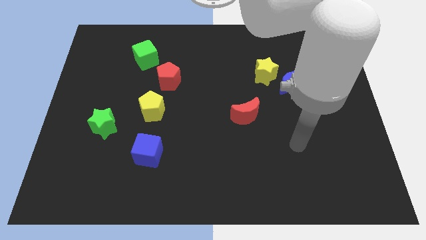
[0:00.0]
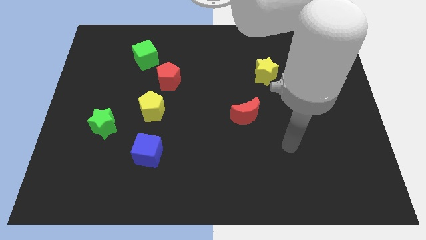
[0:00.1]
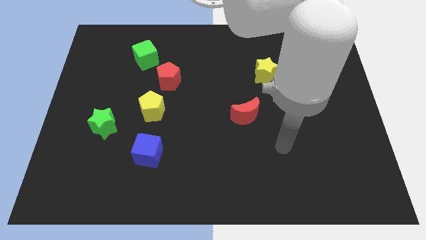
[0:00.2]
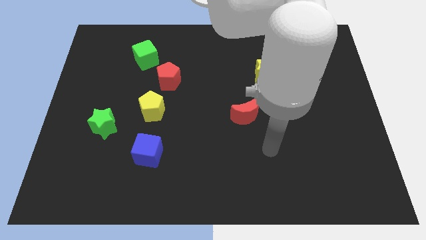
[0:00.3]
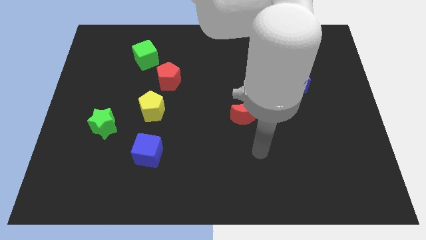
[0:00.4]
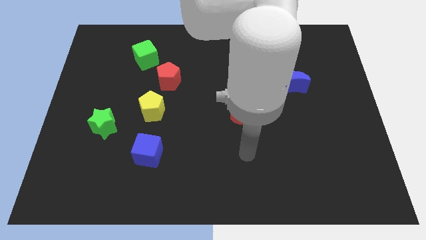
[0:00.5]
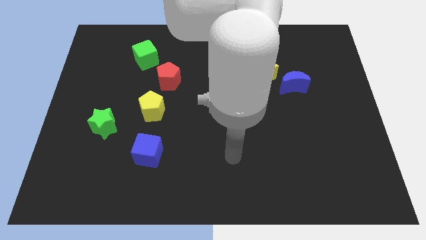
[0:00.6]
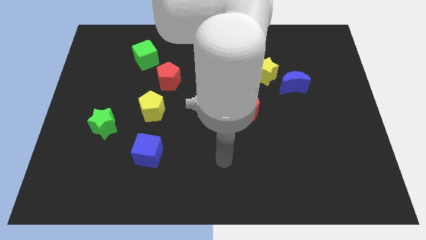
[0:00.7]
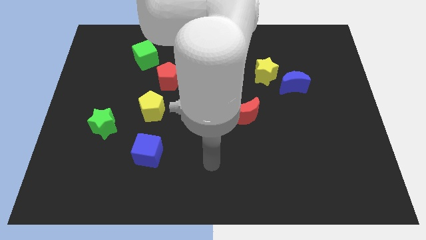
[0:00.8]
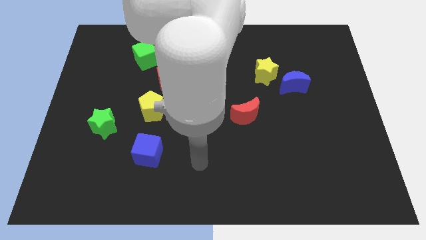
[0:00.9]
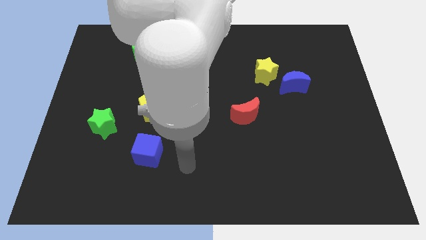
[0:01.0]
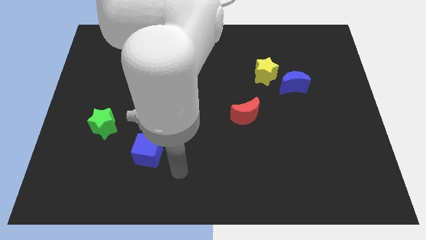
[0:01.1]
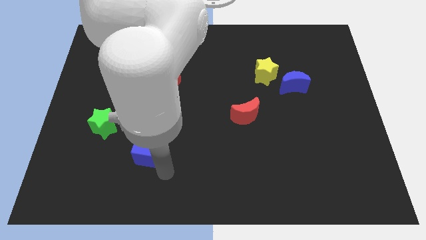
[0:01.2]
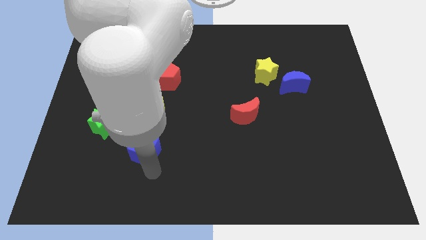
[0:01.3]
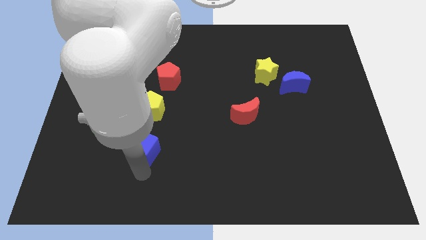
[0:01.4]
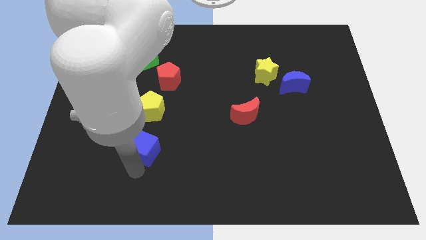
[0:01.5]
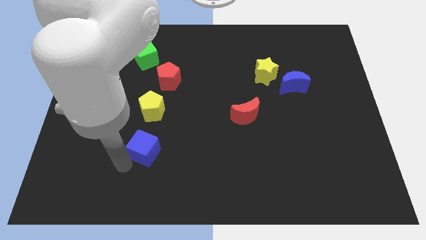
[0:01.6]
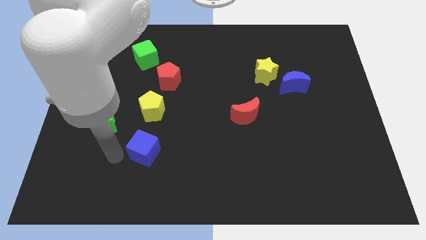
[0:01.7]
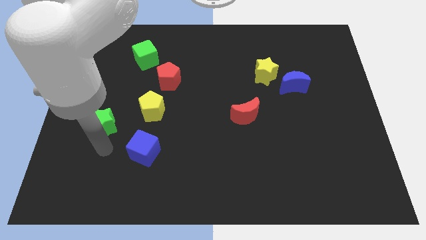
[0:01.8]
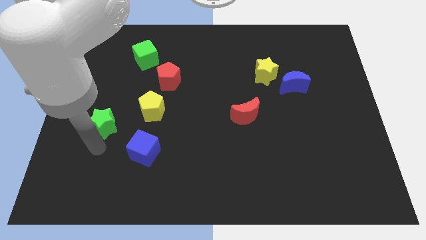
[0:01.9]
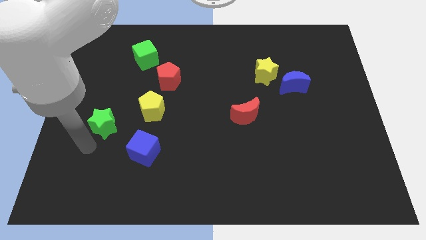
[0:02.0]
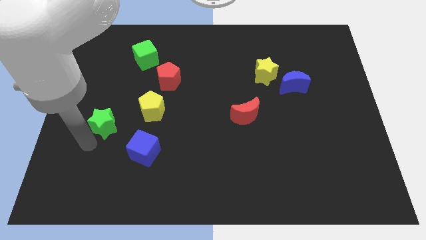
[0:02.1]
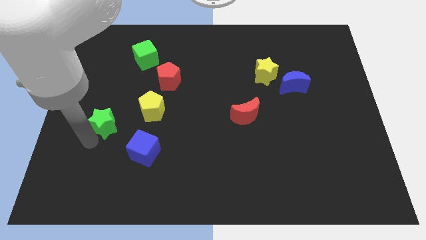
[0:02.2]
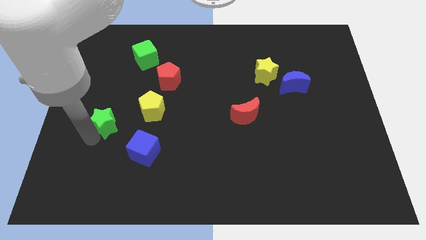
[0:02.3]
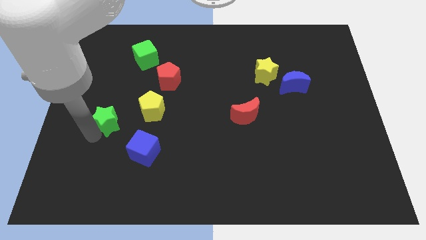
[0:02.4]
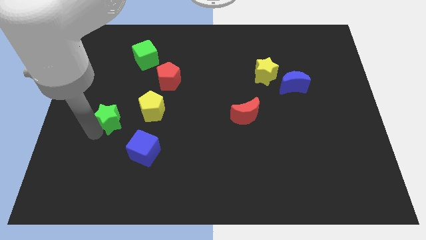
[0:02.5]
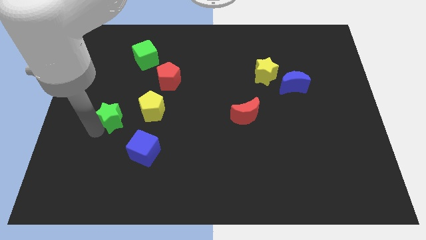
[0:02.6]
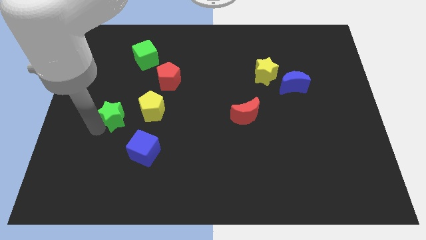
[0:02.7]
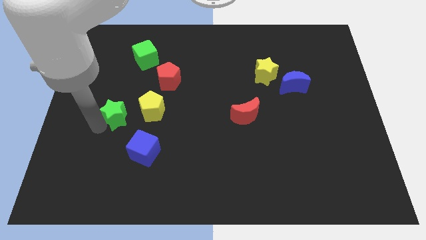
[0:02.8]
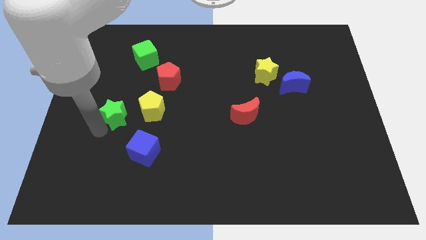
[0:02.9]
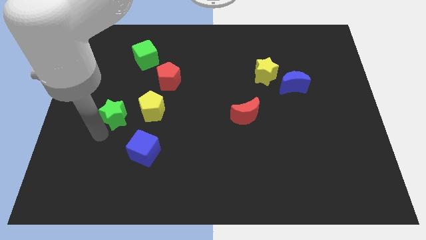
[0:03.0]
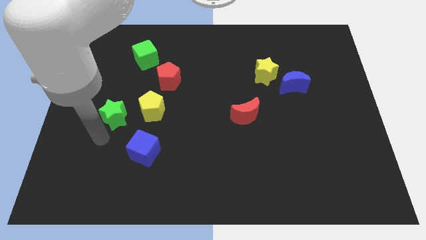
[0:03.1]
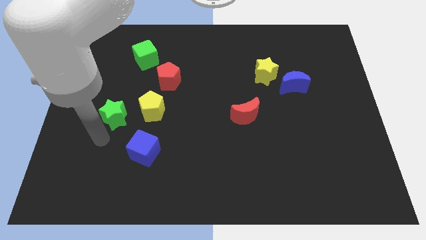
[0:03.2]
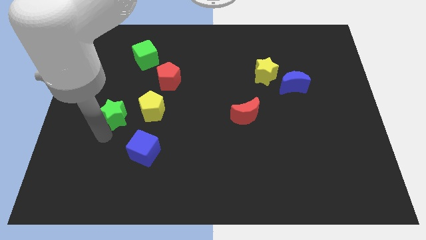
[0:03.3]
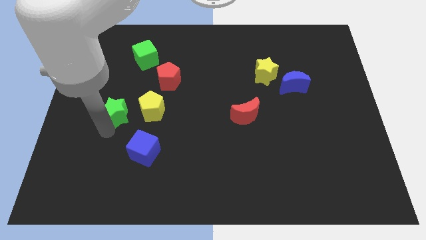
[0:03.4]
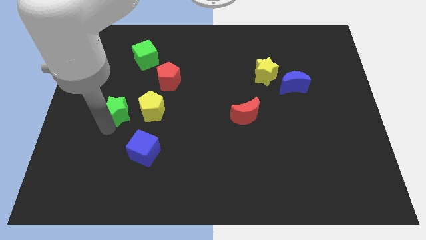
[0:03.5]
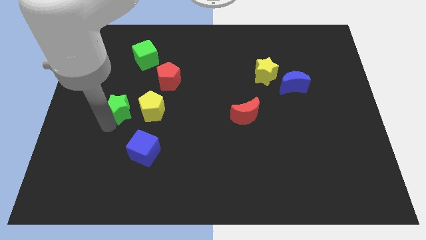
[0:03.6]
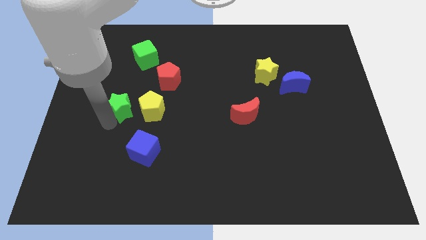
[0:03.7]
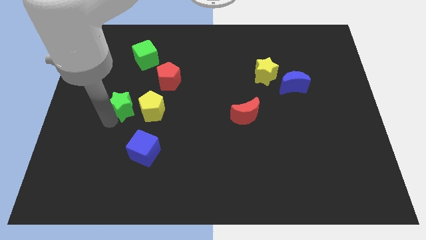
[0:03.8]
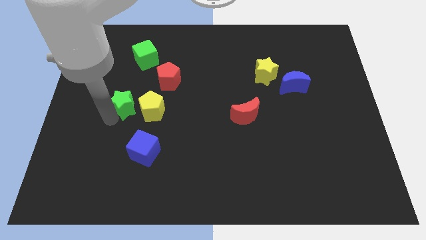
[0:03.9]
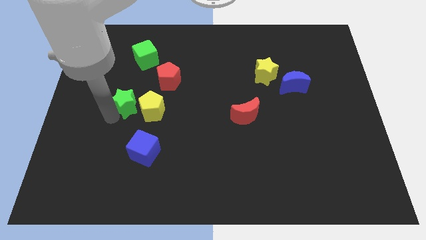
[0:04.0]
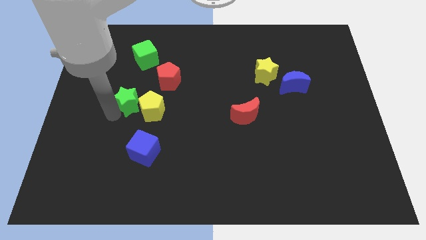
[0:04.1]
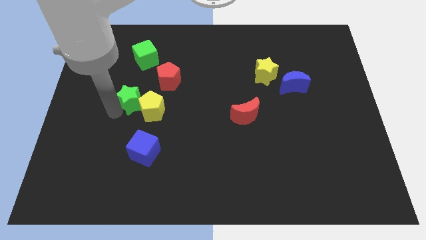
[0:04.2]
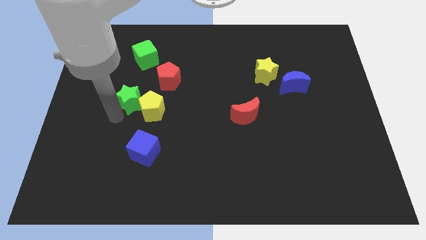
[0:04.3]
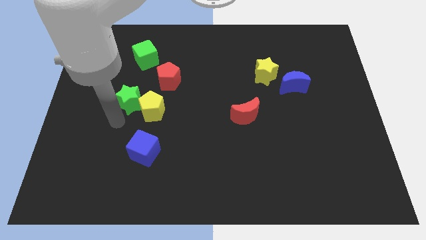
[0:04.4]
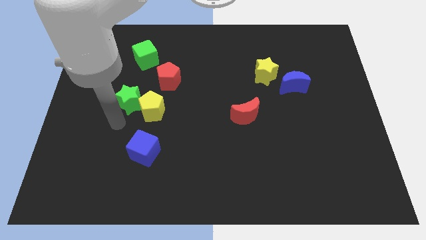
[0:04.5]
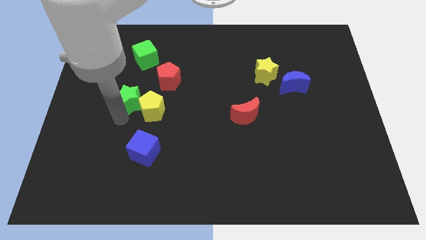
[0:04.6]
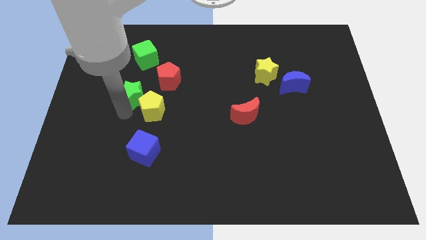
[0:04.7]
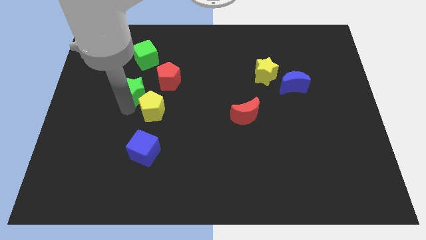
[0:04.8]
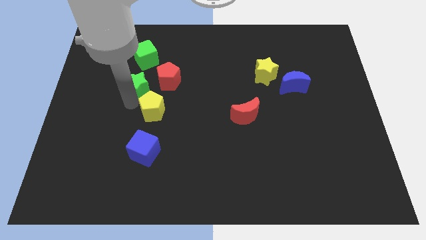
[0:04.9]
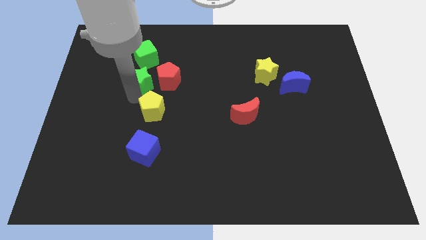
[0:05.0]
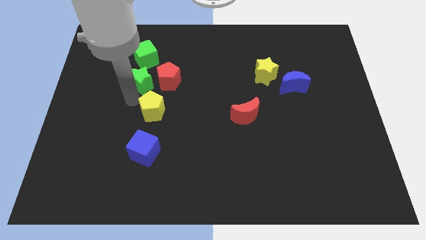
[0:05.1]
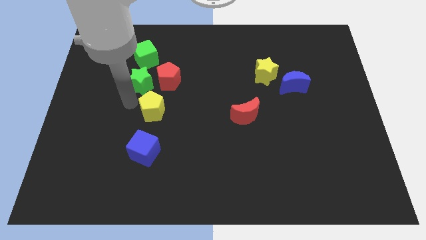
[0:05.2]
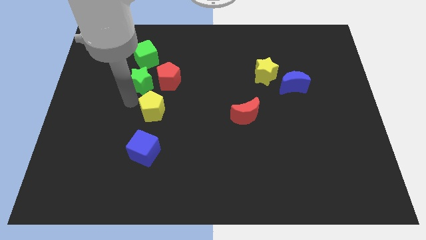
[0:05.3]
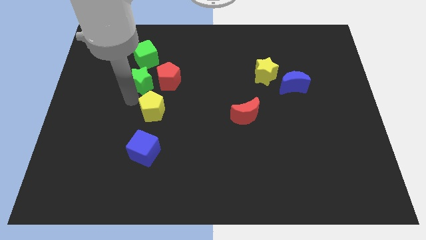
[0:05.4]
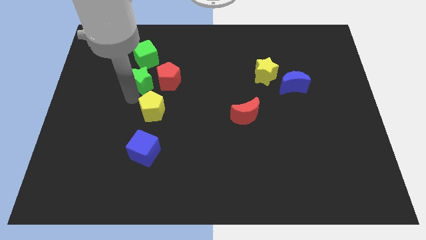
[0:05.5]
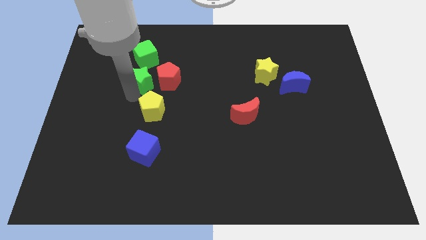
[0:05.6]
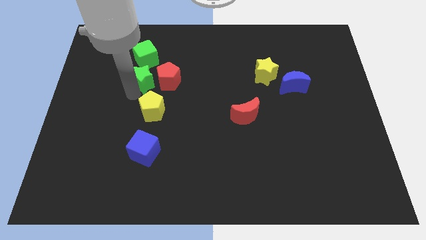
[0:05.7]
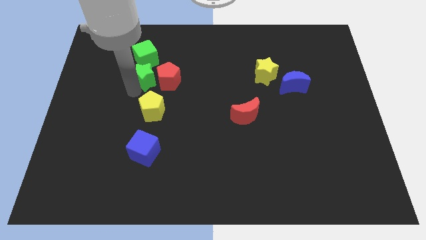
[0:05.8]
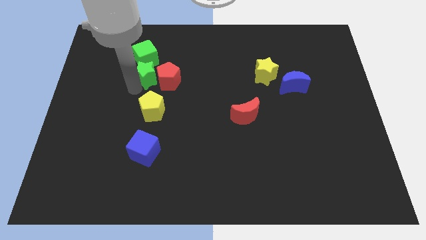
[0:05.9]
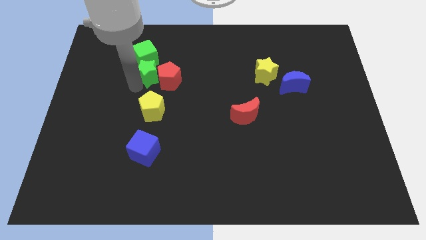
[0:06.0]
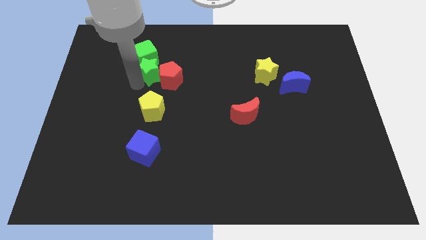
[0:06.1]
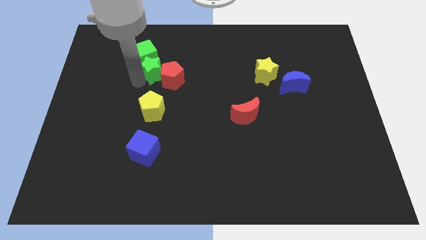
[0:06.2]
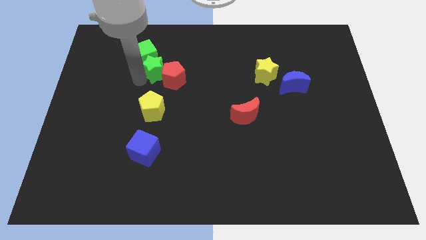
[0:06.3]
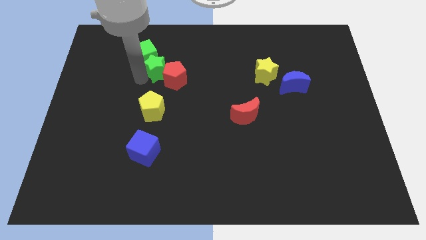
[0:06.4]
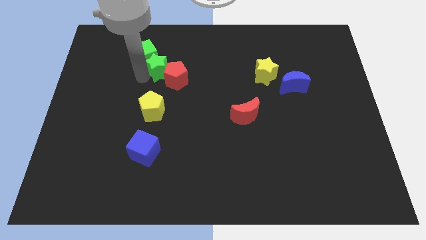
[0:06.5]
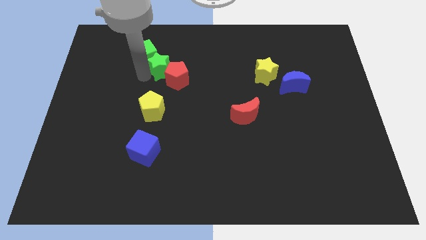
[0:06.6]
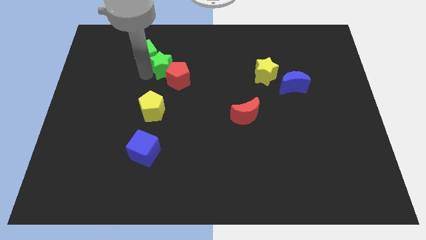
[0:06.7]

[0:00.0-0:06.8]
slide the green star diagonally upwards and to the right

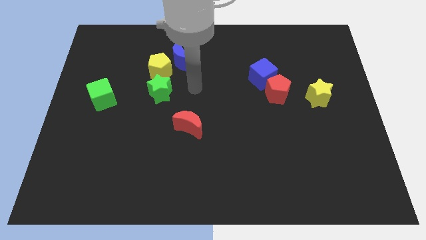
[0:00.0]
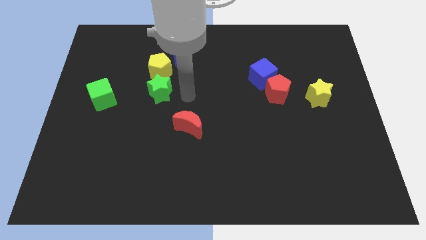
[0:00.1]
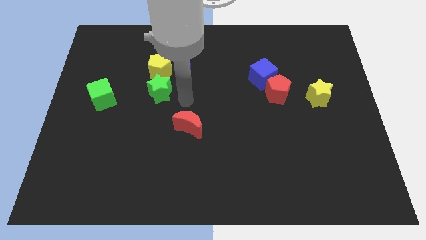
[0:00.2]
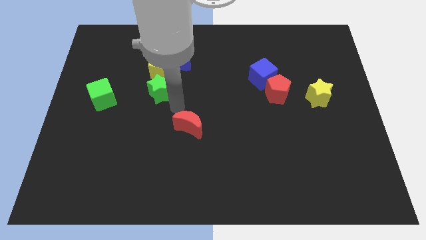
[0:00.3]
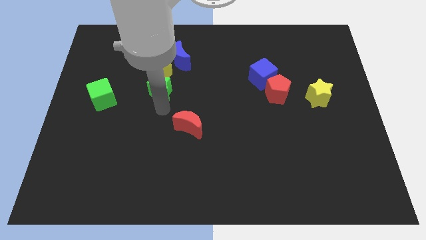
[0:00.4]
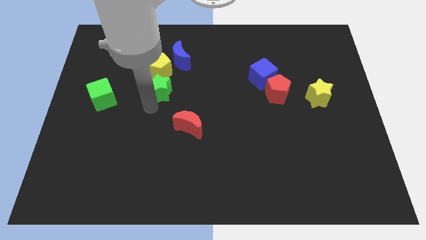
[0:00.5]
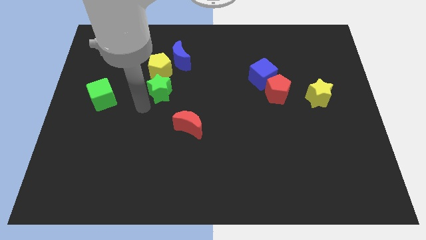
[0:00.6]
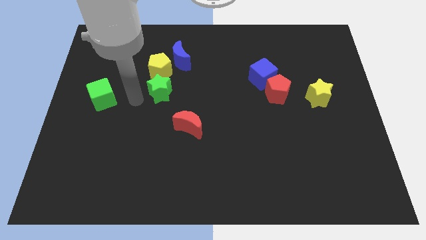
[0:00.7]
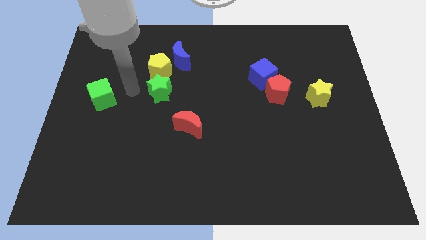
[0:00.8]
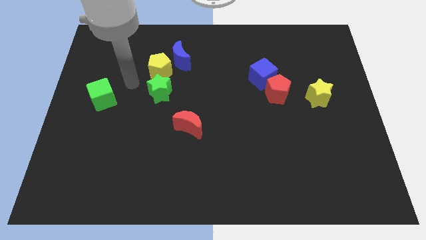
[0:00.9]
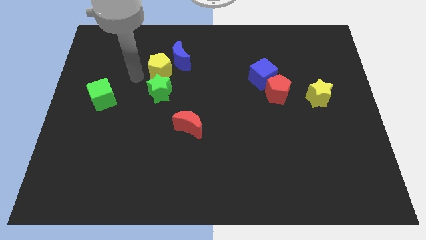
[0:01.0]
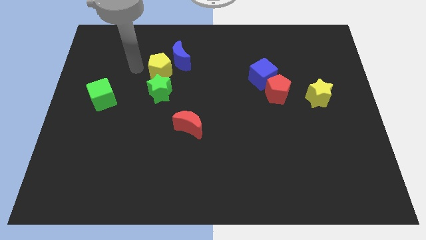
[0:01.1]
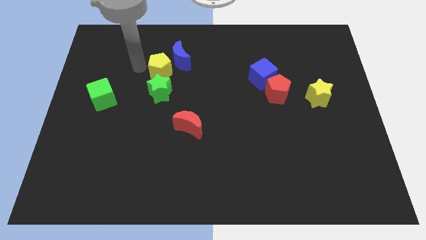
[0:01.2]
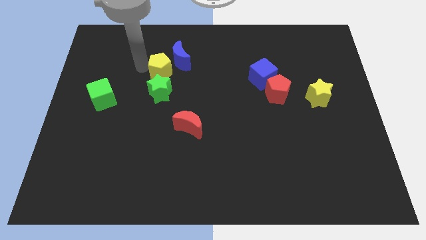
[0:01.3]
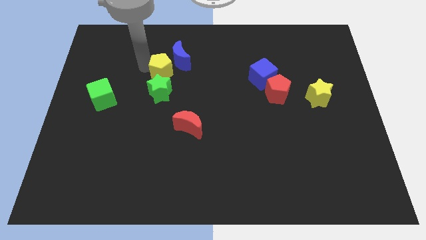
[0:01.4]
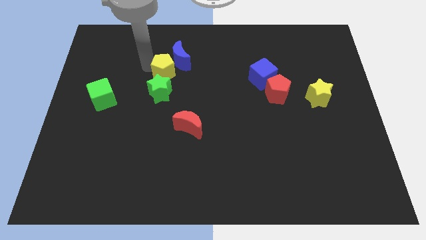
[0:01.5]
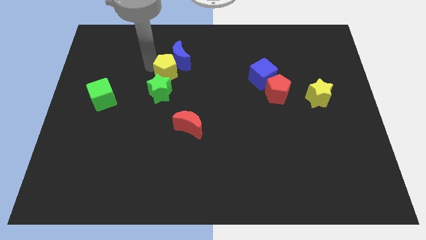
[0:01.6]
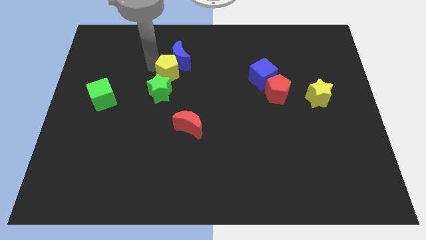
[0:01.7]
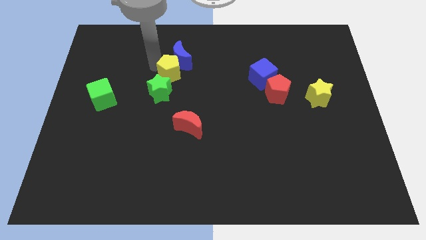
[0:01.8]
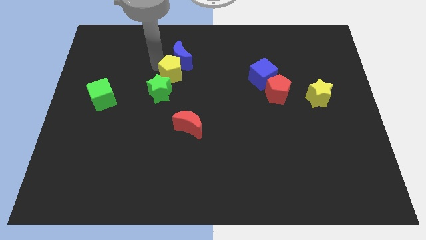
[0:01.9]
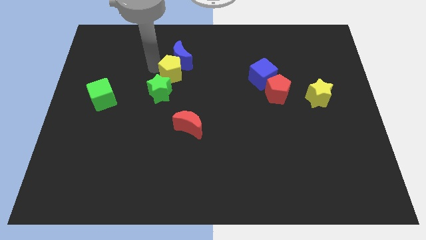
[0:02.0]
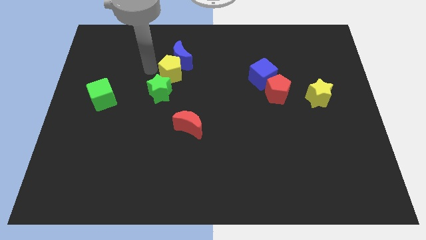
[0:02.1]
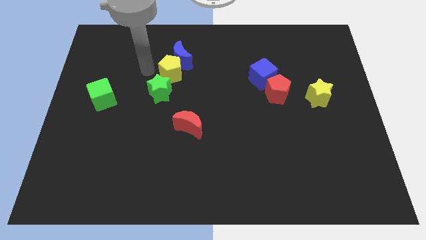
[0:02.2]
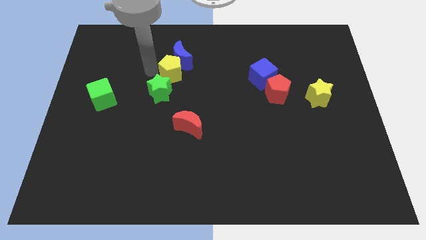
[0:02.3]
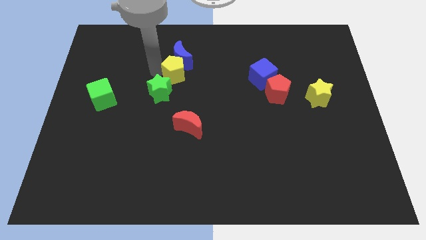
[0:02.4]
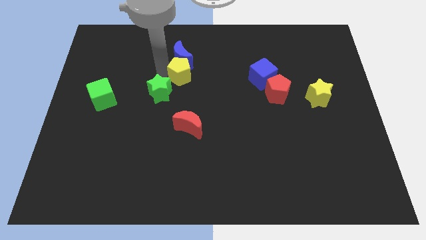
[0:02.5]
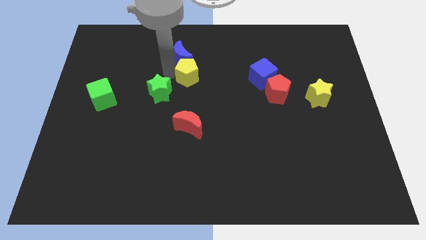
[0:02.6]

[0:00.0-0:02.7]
push the yellow pentagon right a bit
